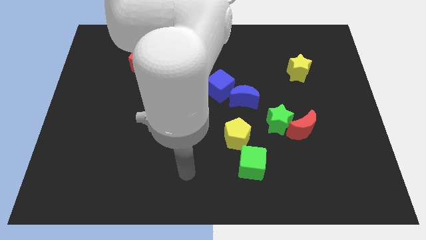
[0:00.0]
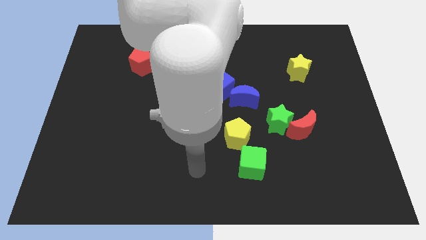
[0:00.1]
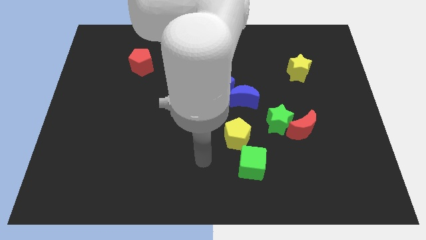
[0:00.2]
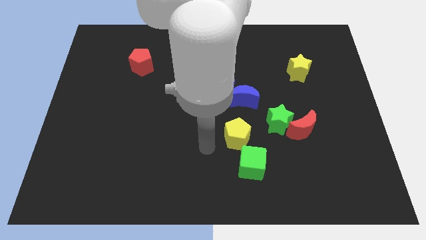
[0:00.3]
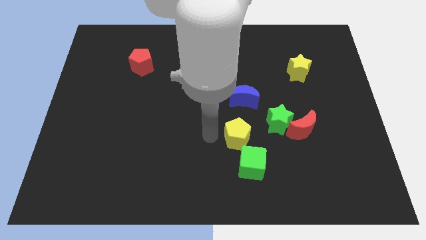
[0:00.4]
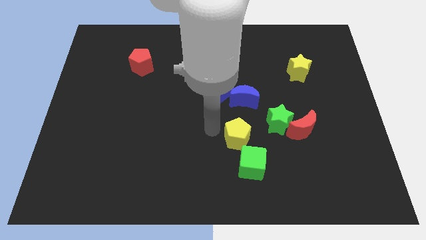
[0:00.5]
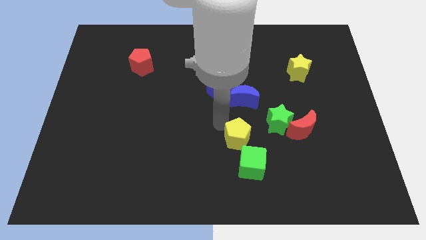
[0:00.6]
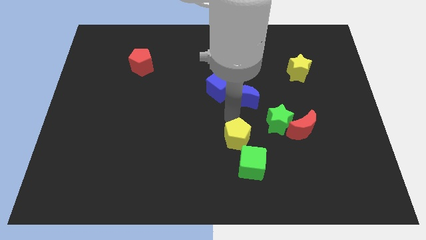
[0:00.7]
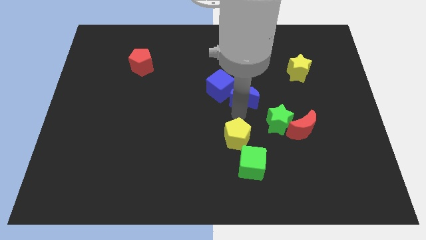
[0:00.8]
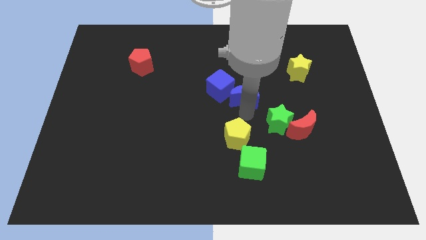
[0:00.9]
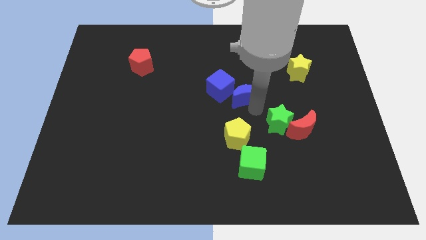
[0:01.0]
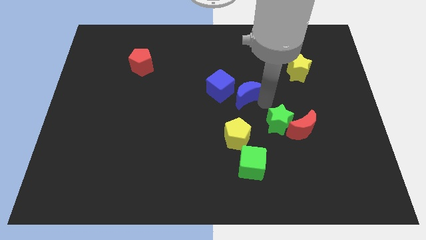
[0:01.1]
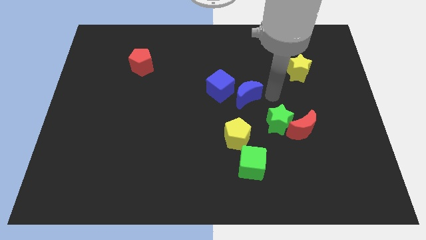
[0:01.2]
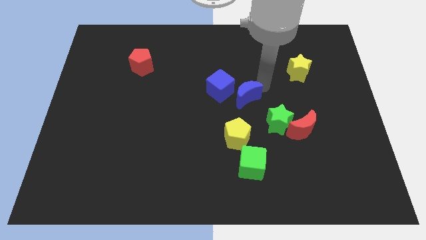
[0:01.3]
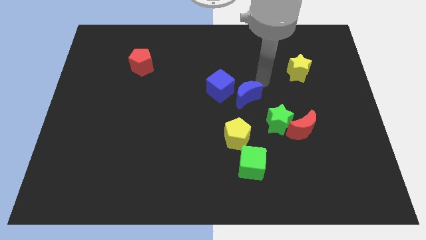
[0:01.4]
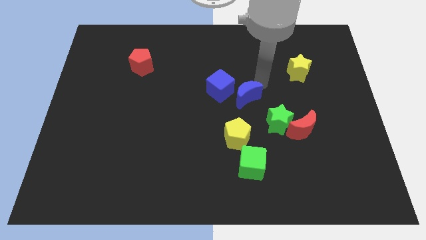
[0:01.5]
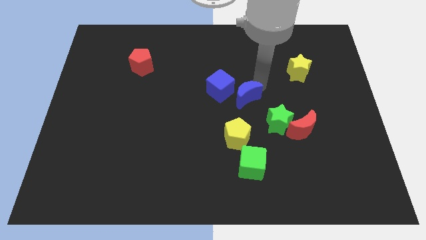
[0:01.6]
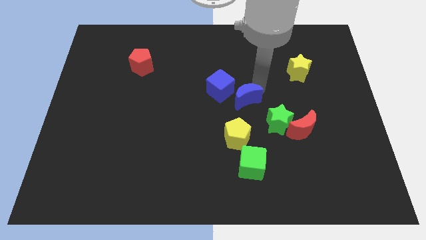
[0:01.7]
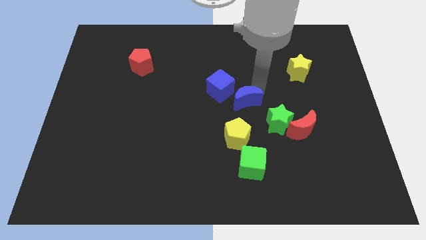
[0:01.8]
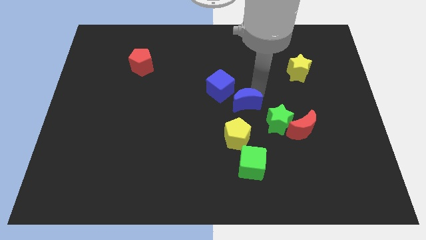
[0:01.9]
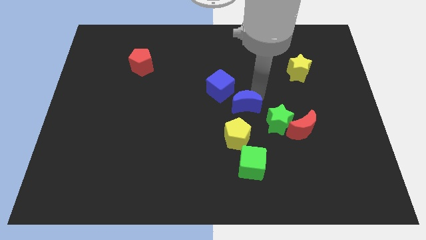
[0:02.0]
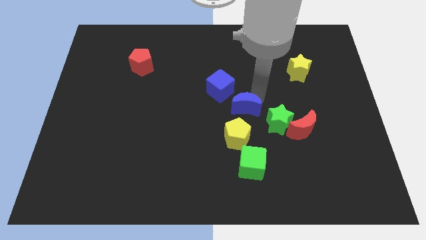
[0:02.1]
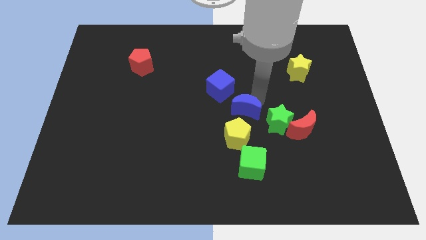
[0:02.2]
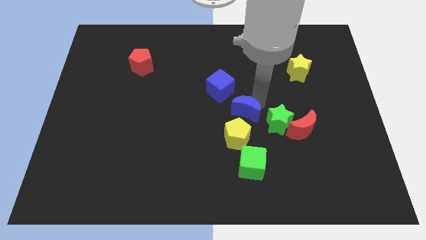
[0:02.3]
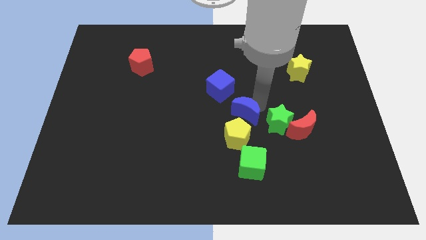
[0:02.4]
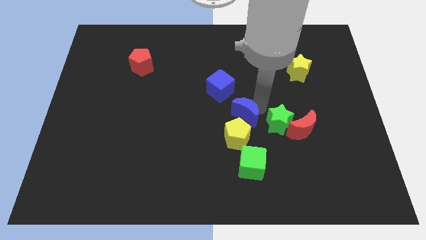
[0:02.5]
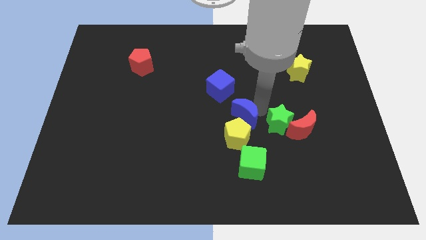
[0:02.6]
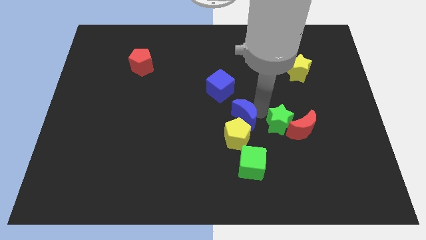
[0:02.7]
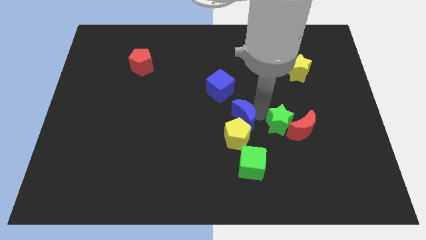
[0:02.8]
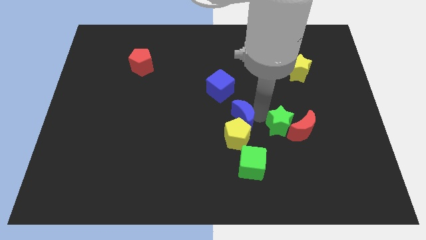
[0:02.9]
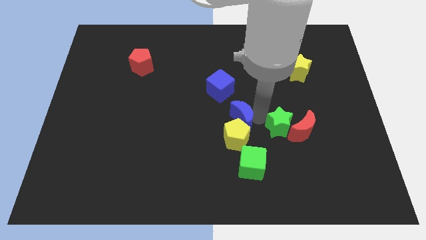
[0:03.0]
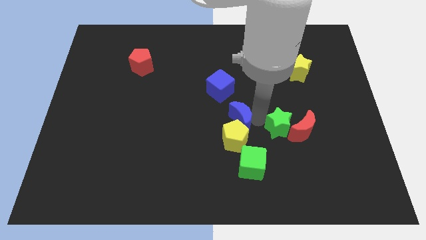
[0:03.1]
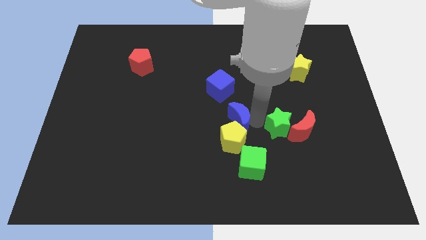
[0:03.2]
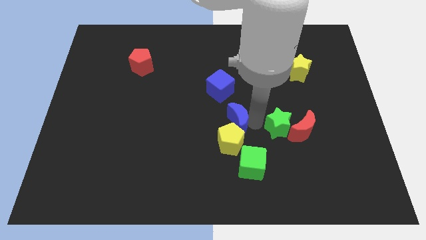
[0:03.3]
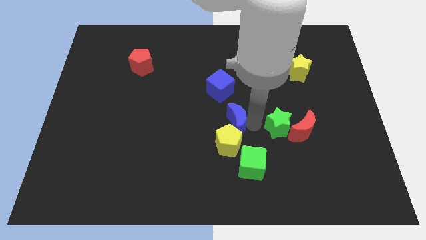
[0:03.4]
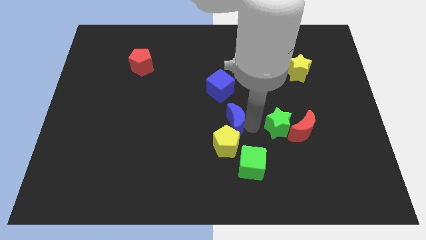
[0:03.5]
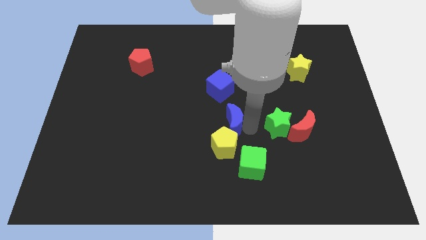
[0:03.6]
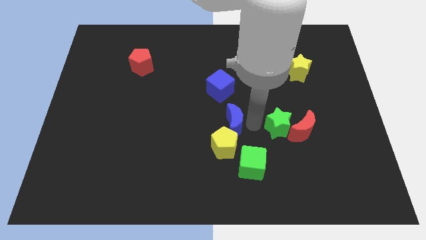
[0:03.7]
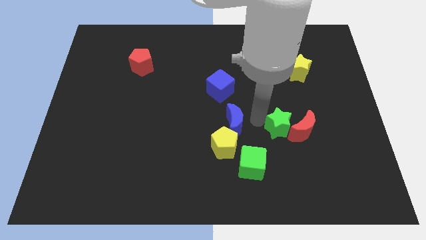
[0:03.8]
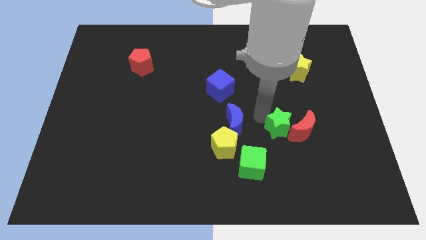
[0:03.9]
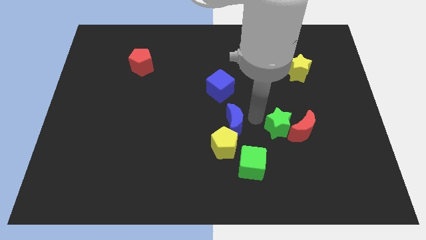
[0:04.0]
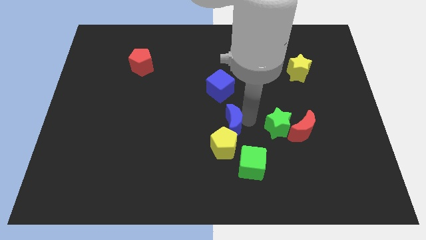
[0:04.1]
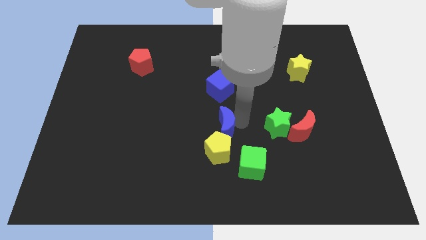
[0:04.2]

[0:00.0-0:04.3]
slide the blue moon a little bit down and to the left

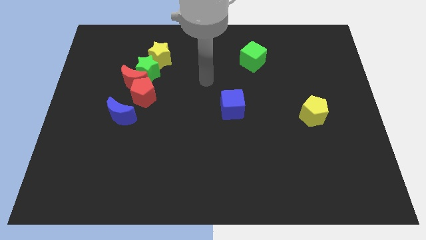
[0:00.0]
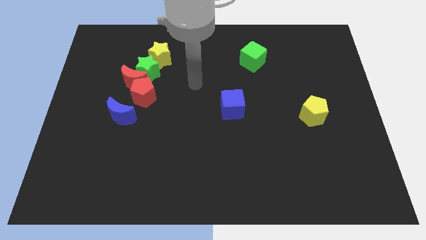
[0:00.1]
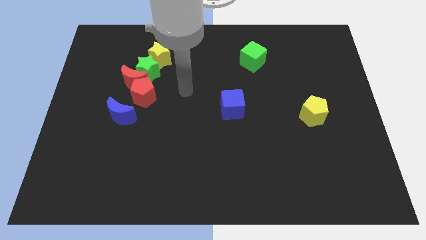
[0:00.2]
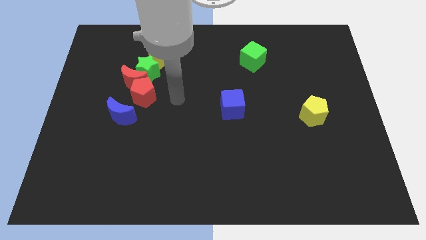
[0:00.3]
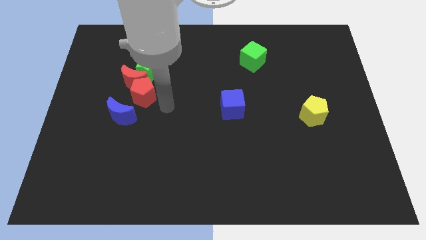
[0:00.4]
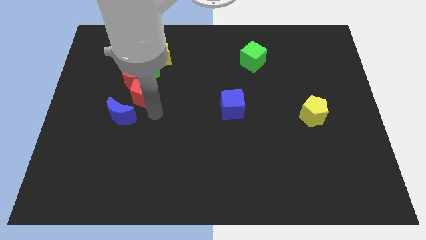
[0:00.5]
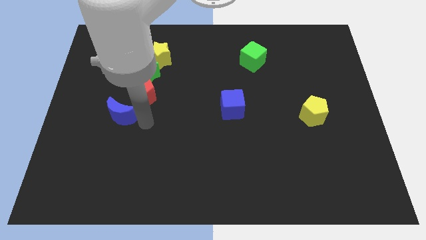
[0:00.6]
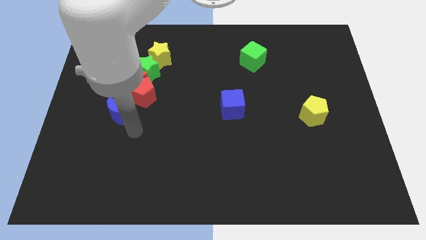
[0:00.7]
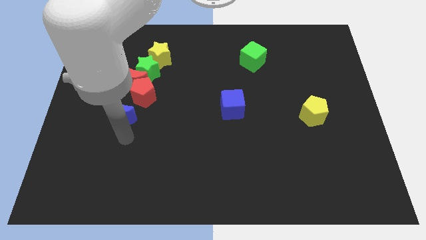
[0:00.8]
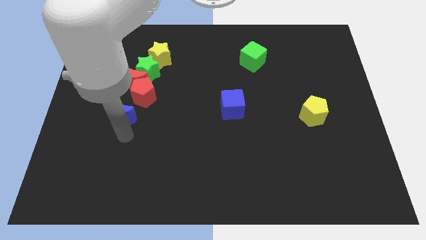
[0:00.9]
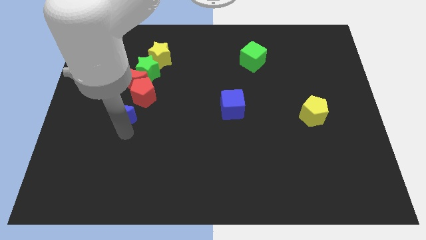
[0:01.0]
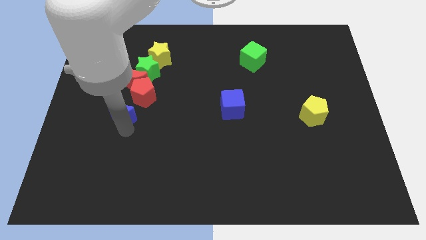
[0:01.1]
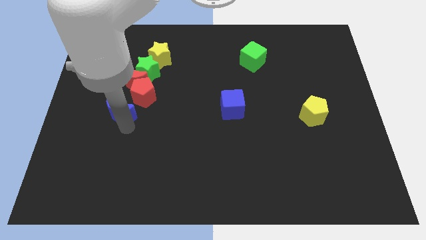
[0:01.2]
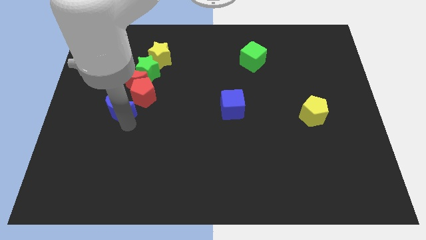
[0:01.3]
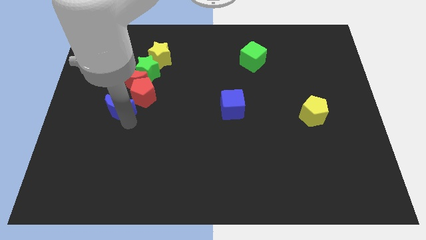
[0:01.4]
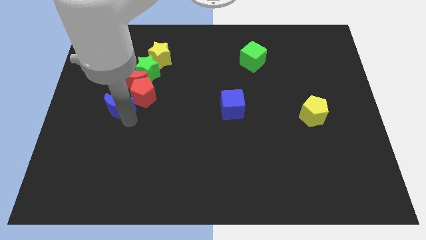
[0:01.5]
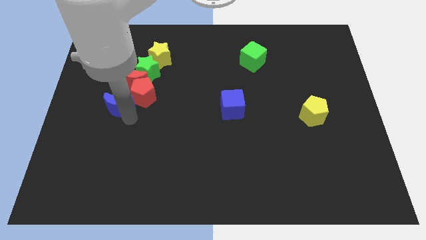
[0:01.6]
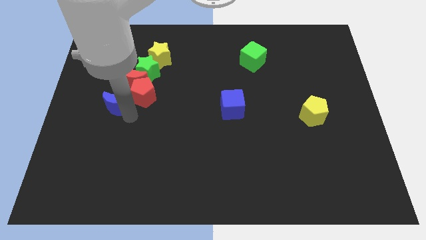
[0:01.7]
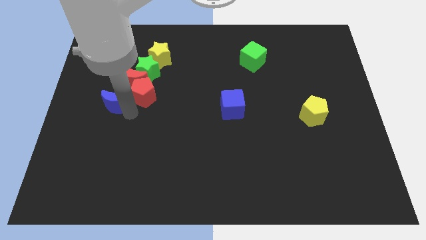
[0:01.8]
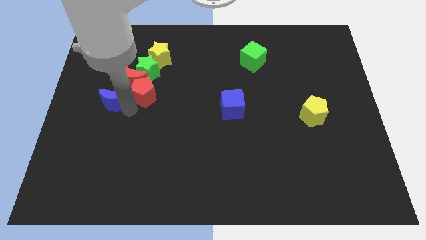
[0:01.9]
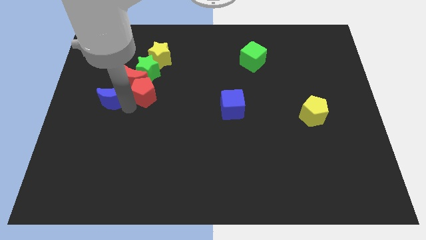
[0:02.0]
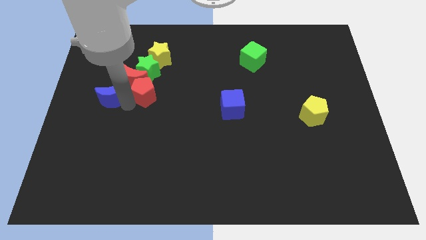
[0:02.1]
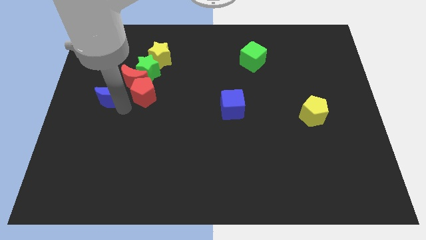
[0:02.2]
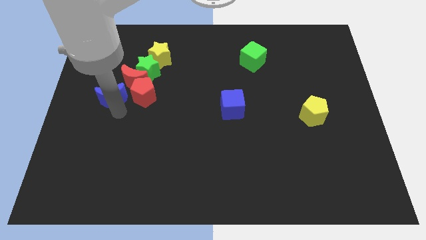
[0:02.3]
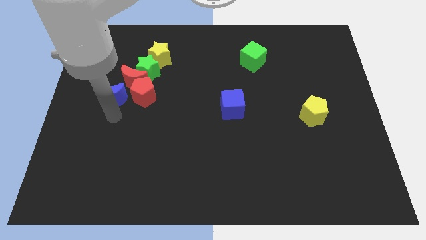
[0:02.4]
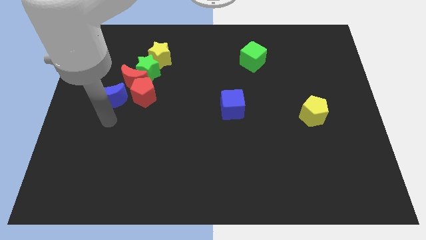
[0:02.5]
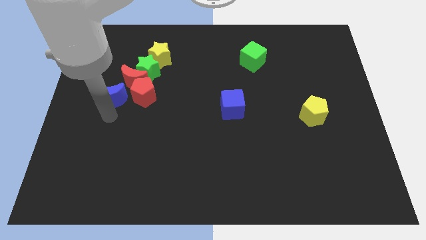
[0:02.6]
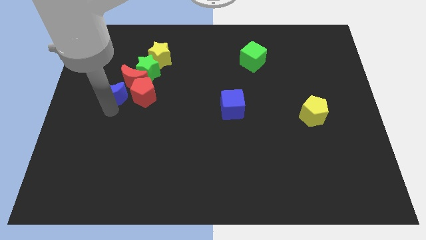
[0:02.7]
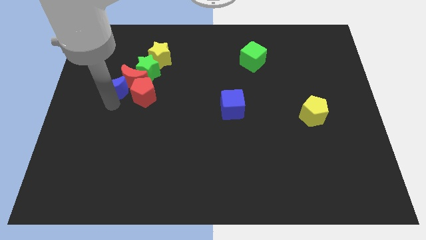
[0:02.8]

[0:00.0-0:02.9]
slightly move the blue moon upwards

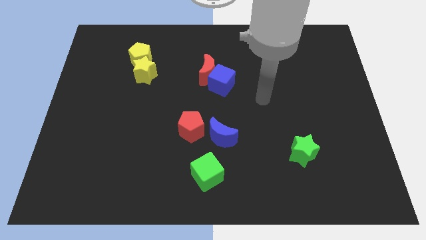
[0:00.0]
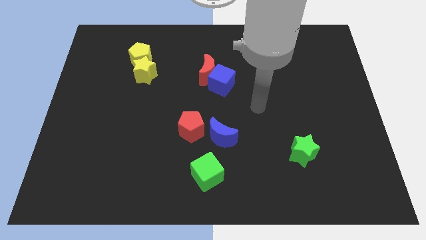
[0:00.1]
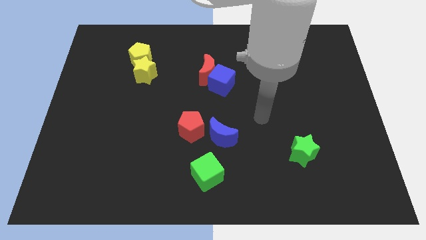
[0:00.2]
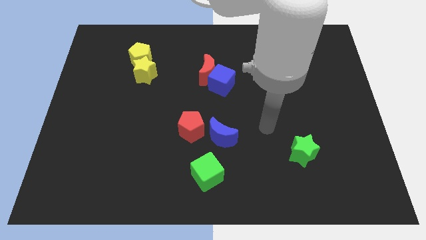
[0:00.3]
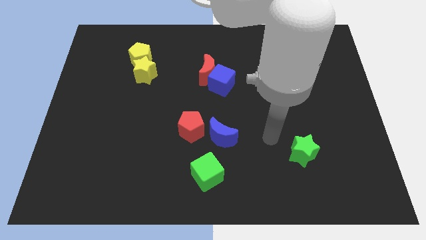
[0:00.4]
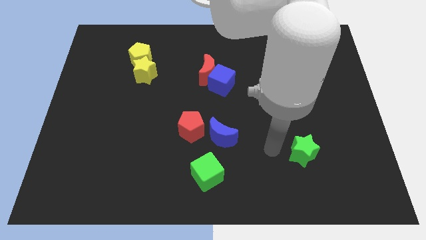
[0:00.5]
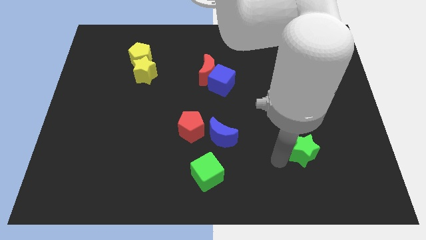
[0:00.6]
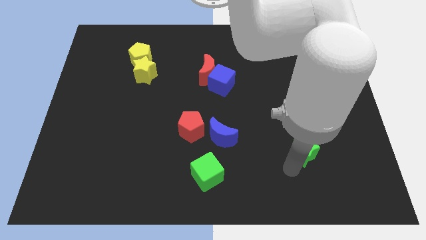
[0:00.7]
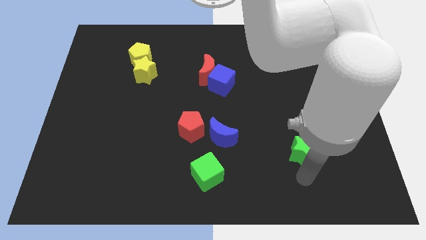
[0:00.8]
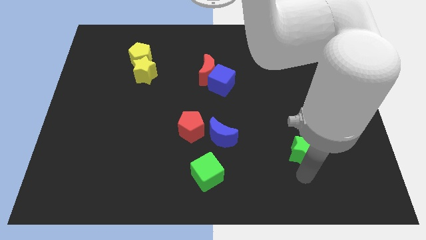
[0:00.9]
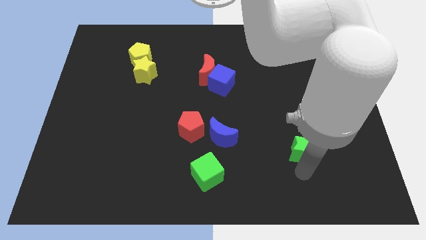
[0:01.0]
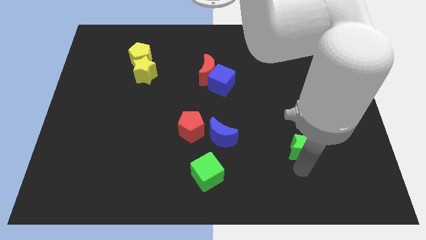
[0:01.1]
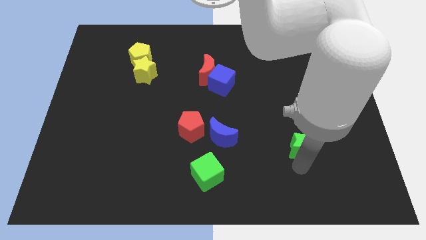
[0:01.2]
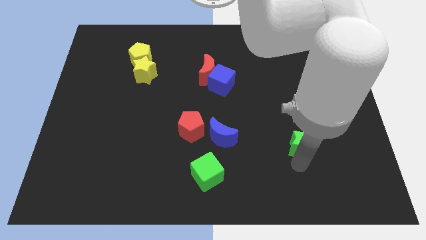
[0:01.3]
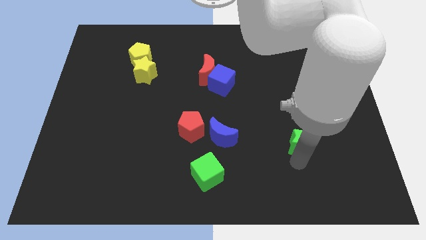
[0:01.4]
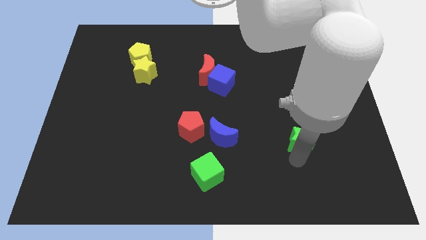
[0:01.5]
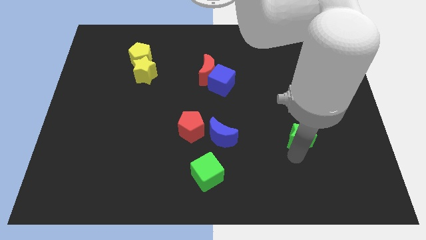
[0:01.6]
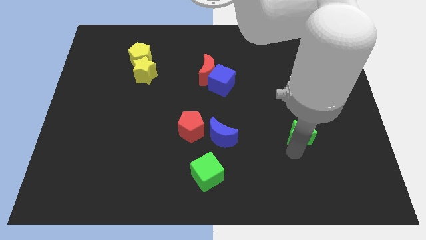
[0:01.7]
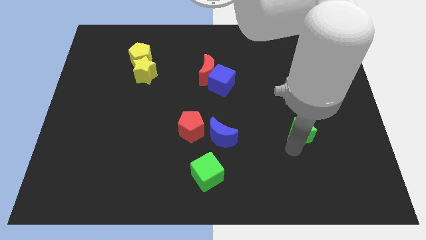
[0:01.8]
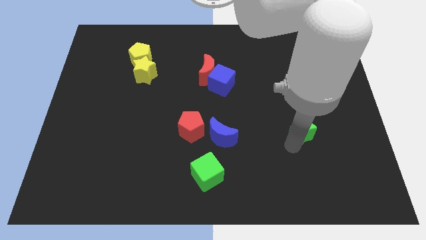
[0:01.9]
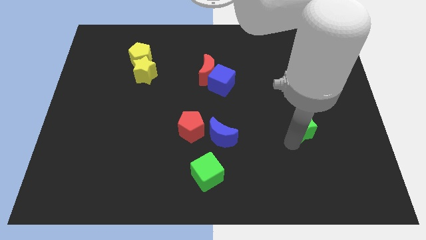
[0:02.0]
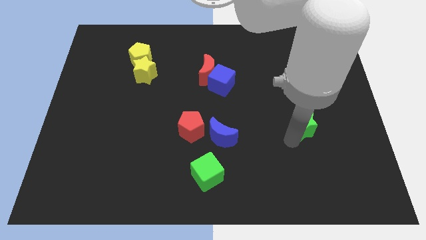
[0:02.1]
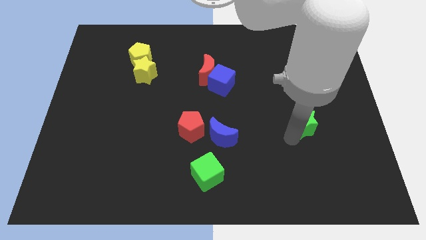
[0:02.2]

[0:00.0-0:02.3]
move the green star slightly up
